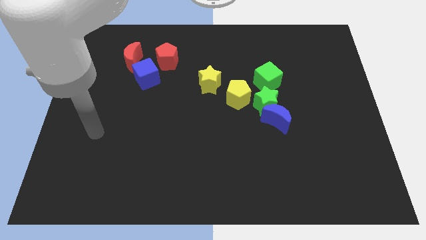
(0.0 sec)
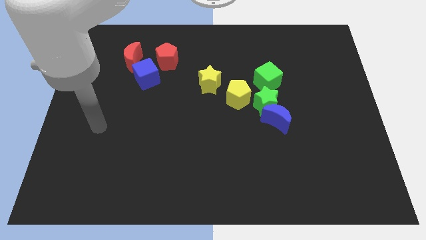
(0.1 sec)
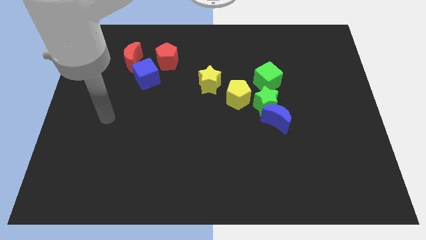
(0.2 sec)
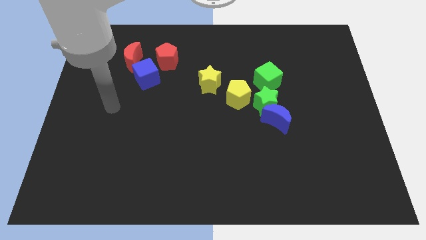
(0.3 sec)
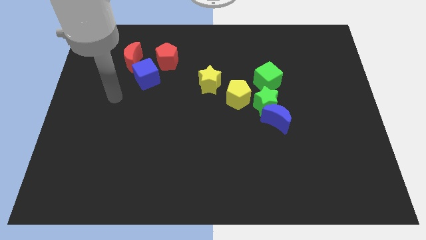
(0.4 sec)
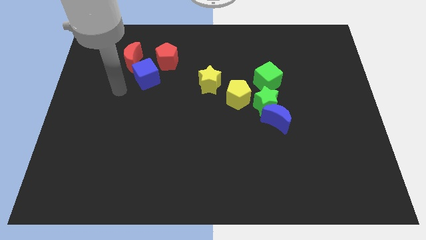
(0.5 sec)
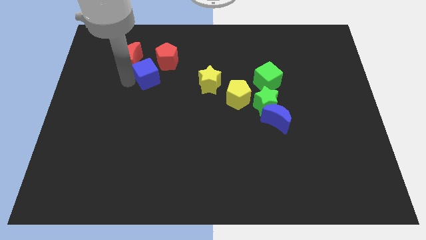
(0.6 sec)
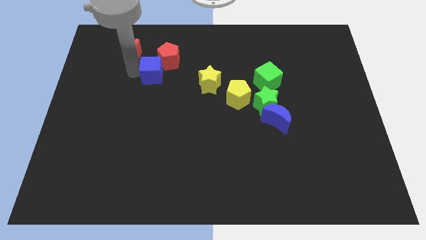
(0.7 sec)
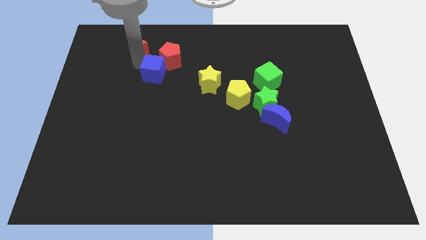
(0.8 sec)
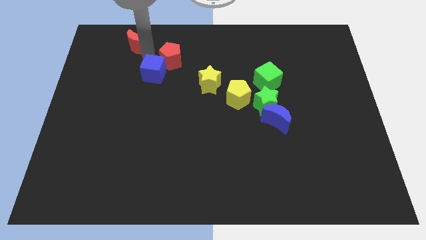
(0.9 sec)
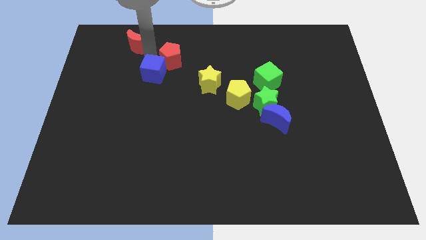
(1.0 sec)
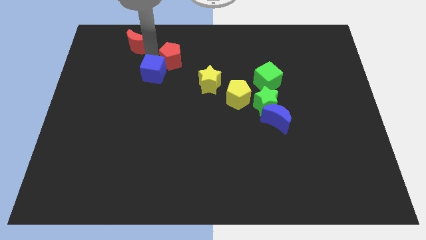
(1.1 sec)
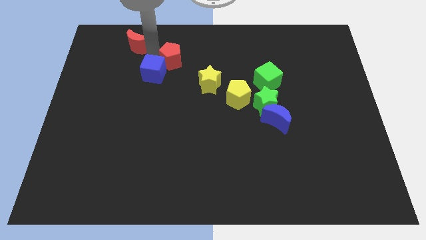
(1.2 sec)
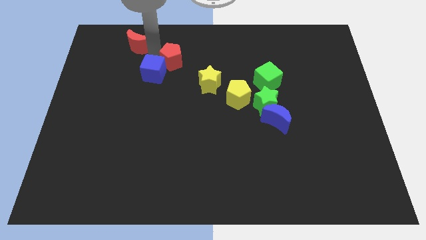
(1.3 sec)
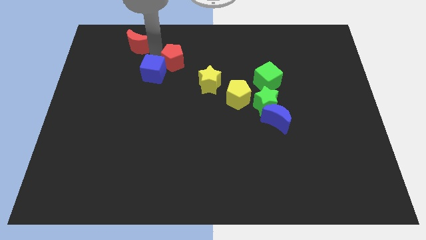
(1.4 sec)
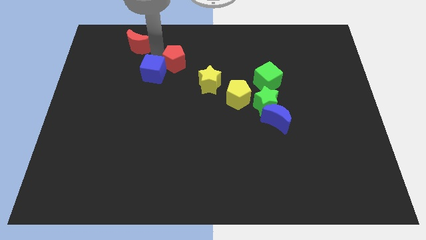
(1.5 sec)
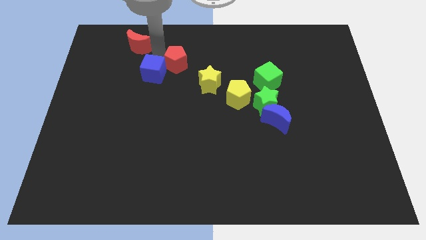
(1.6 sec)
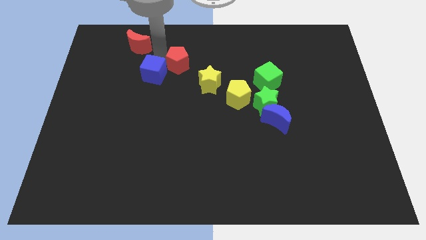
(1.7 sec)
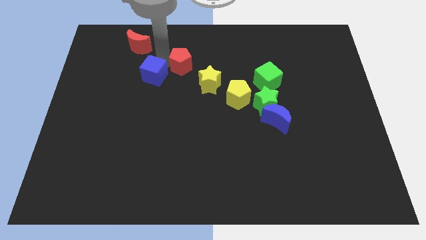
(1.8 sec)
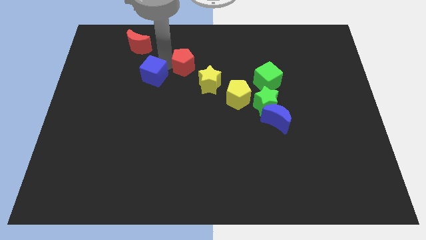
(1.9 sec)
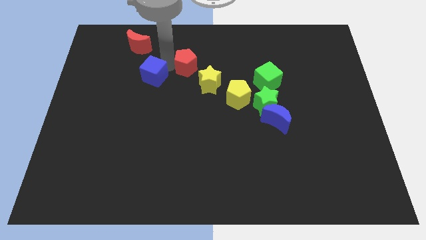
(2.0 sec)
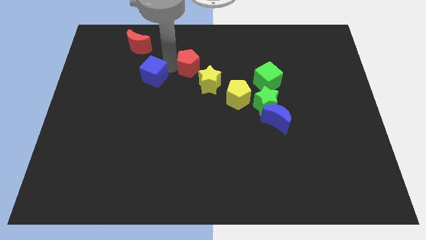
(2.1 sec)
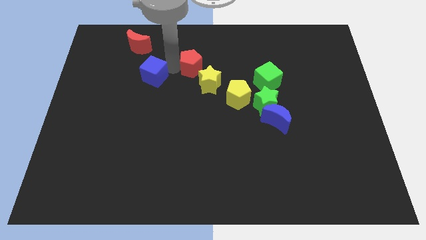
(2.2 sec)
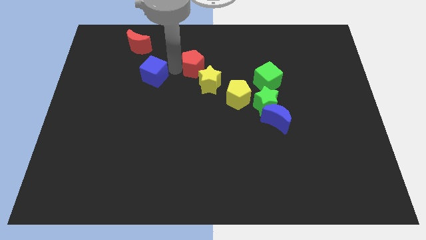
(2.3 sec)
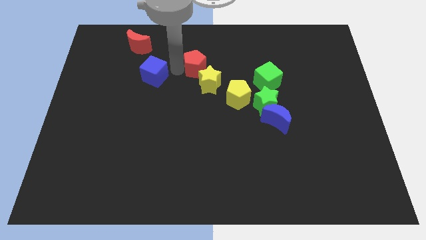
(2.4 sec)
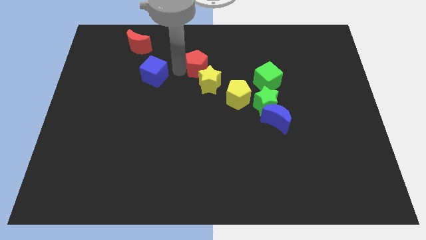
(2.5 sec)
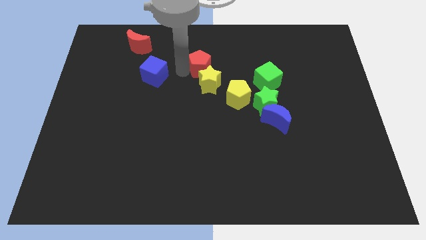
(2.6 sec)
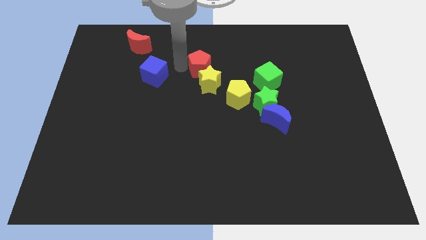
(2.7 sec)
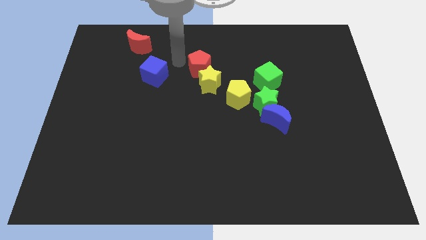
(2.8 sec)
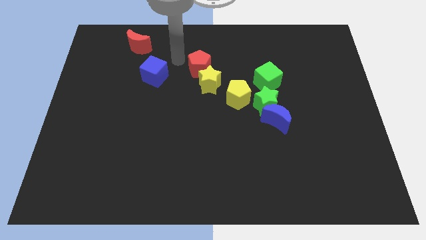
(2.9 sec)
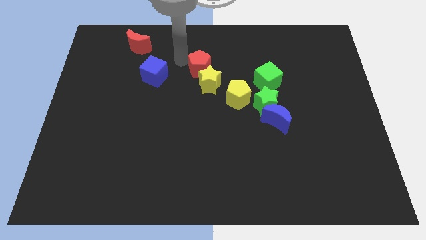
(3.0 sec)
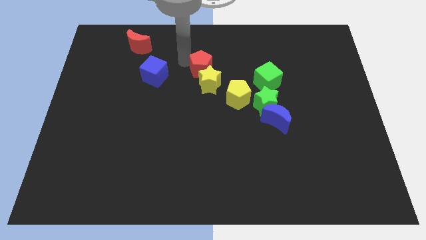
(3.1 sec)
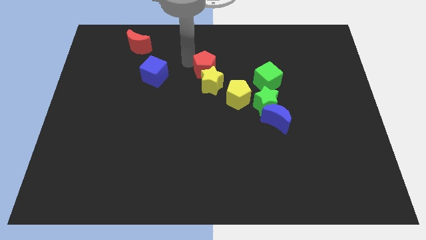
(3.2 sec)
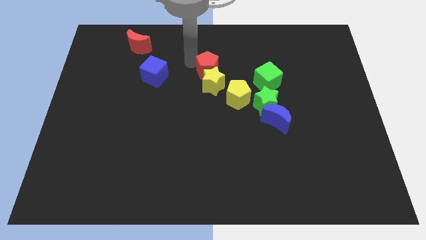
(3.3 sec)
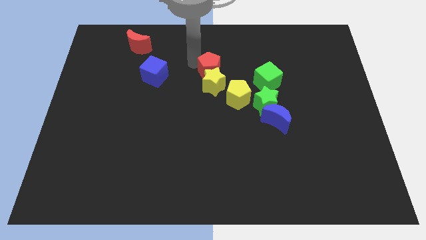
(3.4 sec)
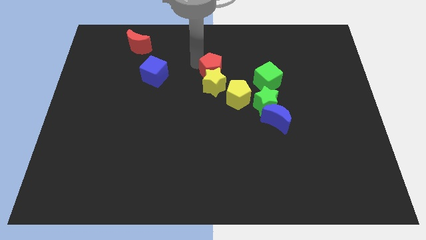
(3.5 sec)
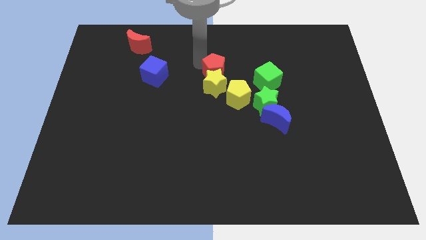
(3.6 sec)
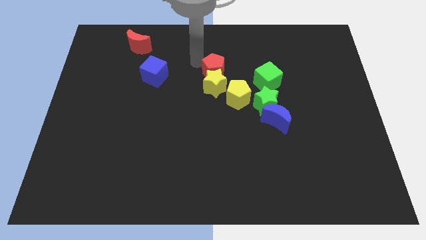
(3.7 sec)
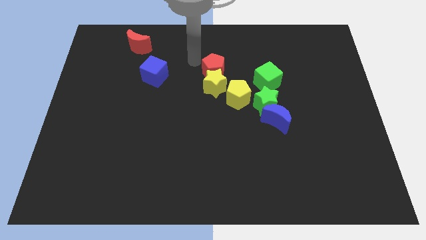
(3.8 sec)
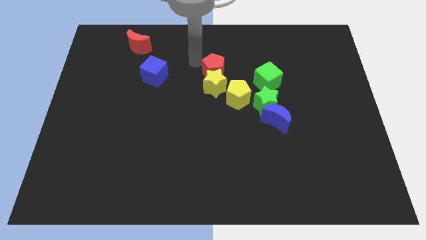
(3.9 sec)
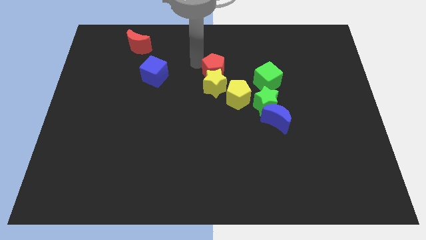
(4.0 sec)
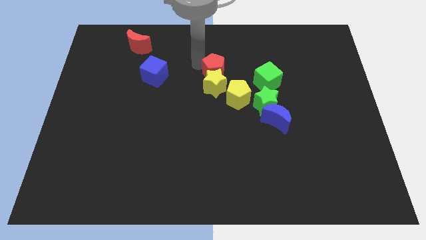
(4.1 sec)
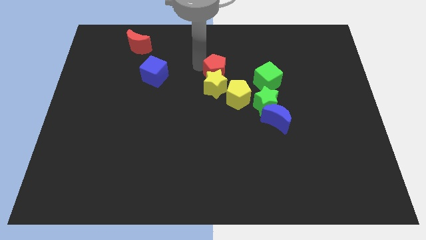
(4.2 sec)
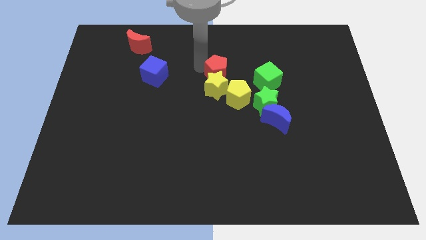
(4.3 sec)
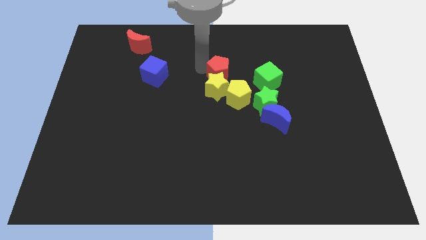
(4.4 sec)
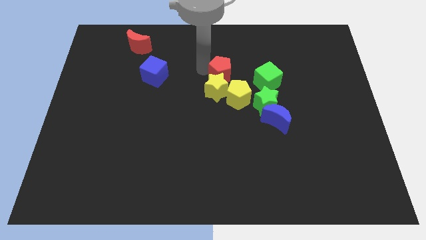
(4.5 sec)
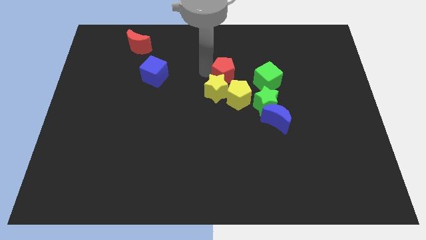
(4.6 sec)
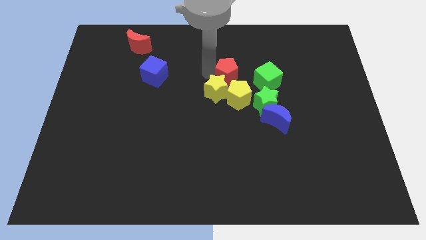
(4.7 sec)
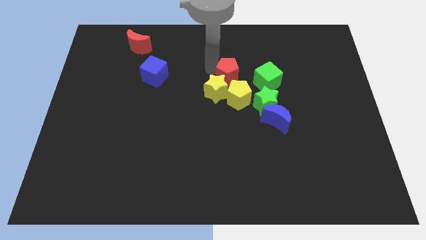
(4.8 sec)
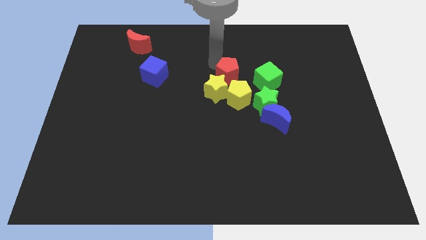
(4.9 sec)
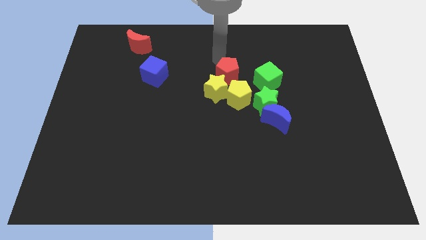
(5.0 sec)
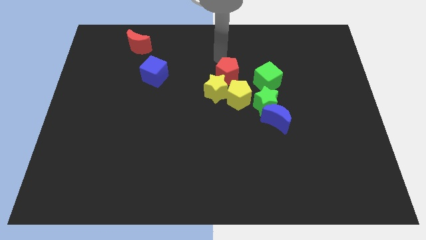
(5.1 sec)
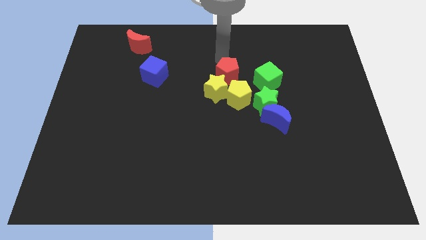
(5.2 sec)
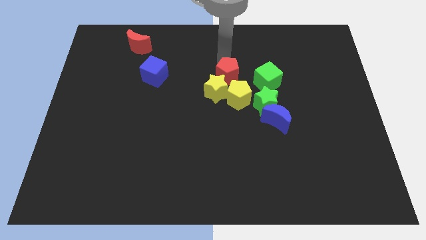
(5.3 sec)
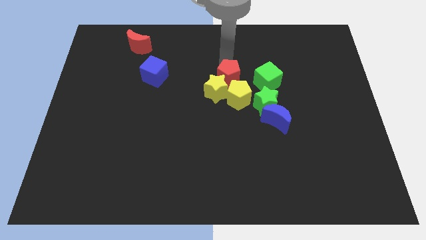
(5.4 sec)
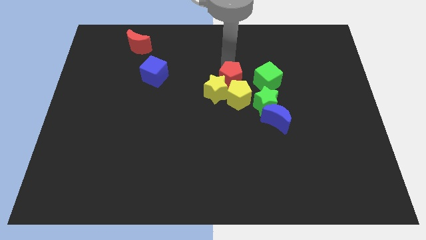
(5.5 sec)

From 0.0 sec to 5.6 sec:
slide the red pentagon close to the yellow pentagon

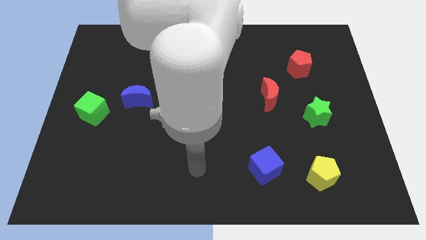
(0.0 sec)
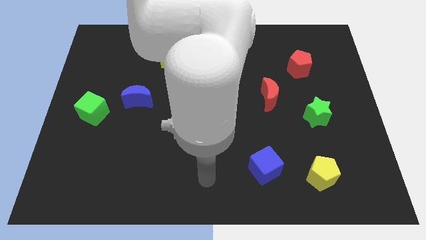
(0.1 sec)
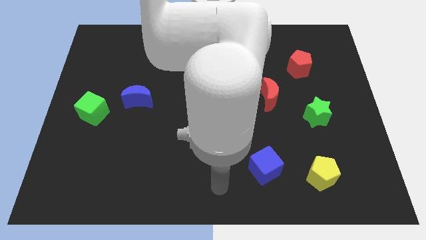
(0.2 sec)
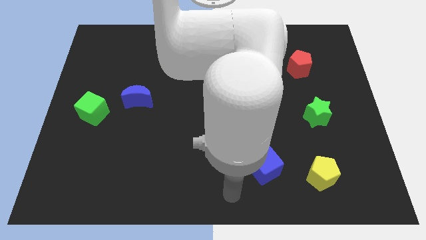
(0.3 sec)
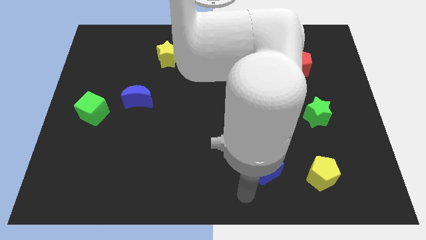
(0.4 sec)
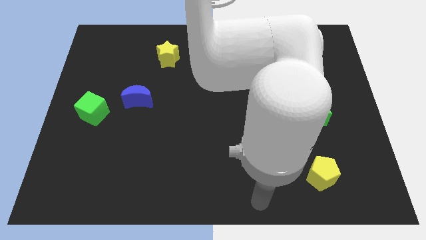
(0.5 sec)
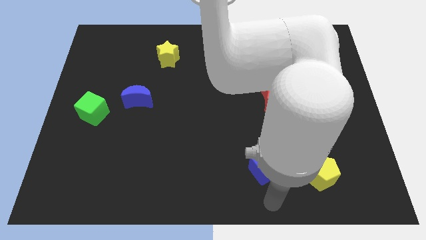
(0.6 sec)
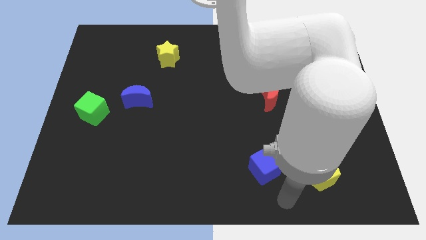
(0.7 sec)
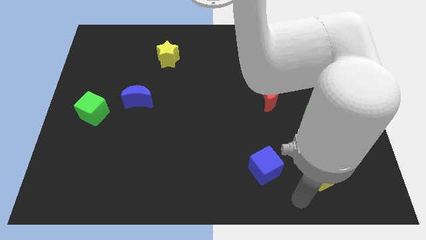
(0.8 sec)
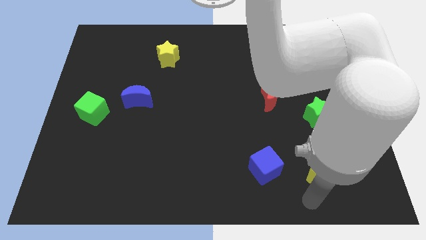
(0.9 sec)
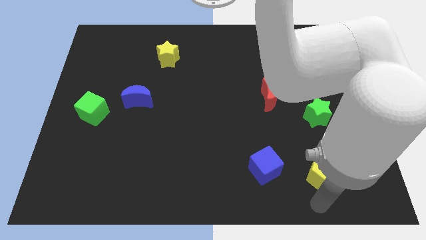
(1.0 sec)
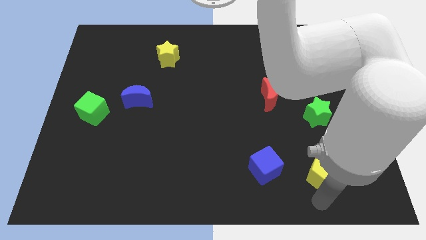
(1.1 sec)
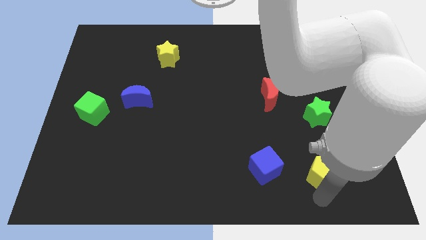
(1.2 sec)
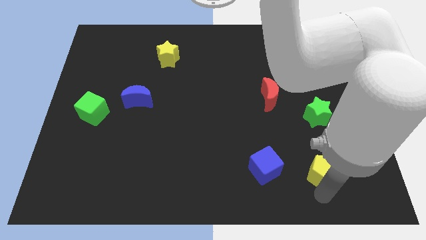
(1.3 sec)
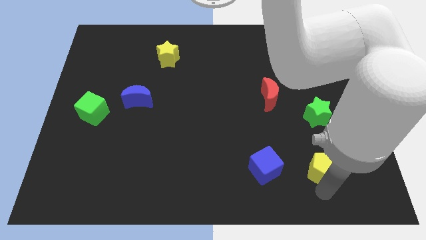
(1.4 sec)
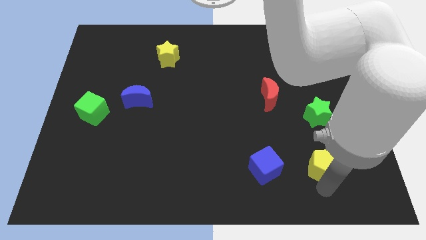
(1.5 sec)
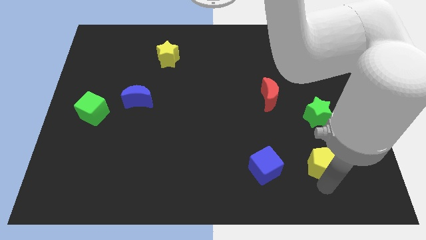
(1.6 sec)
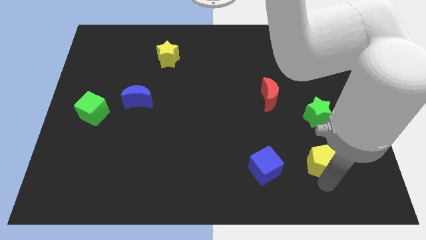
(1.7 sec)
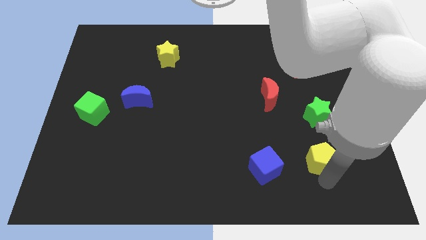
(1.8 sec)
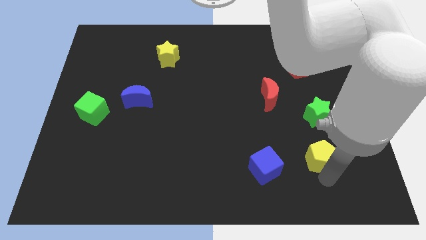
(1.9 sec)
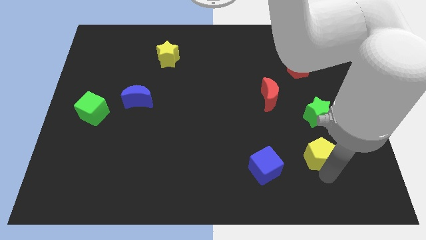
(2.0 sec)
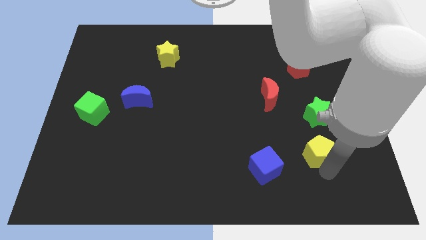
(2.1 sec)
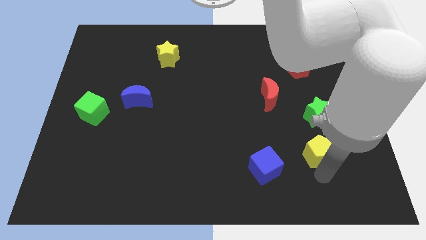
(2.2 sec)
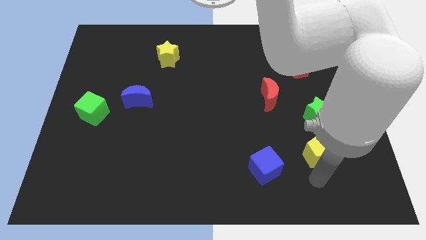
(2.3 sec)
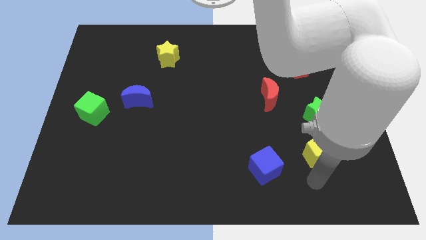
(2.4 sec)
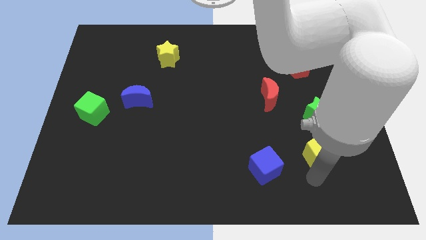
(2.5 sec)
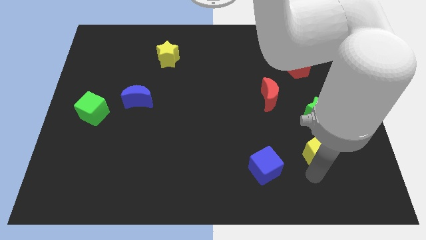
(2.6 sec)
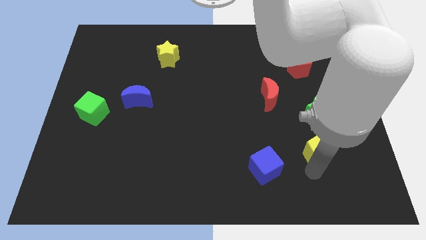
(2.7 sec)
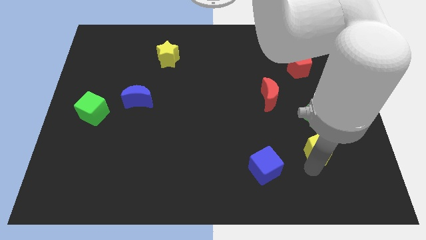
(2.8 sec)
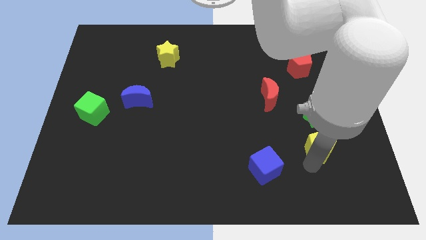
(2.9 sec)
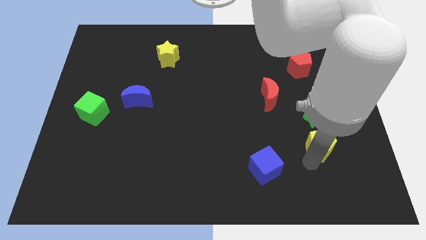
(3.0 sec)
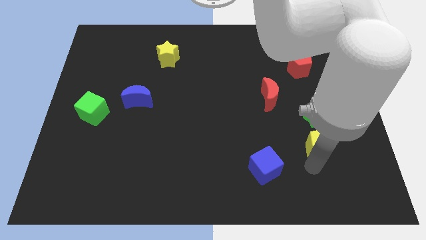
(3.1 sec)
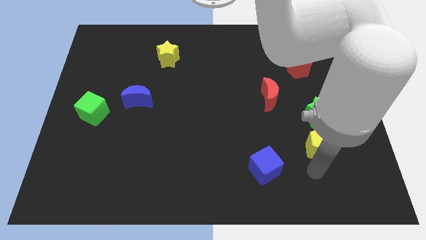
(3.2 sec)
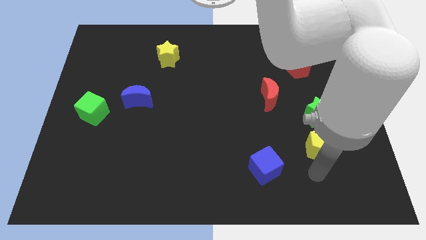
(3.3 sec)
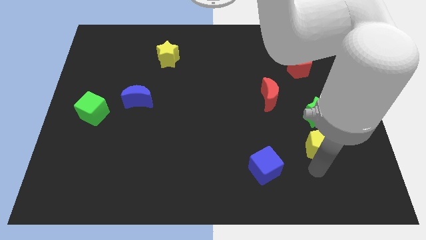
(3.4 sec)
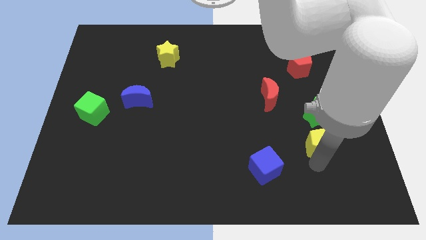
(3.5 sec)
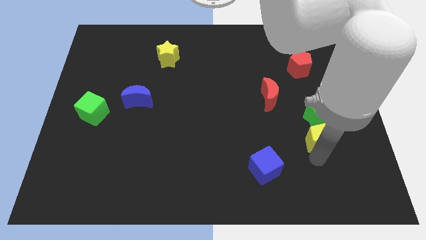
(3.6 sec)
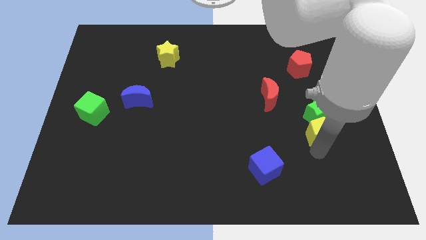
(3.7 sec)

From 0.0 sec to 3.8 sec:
slide the yellow pentagon close to the green star
